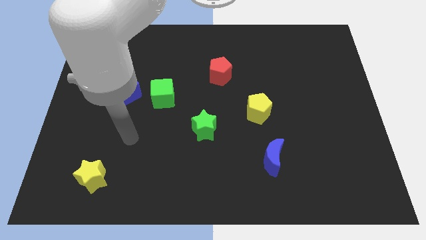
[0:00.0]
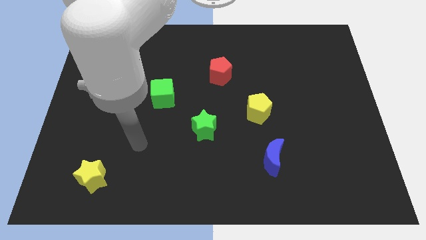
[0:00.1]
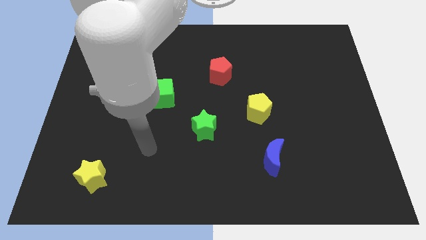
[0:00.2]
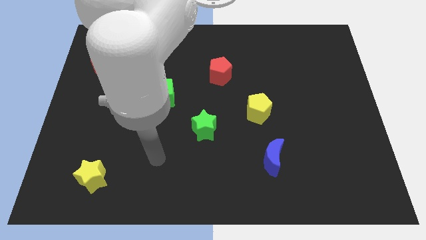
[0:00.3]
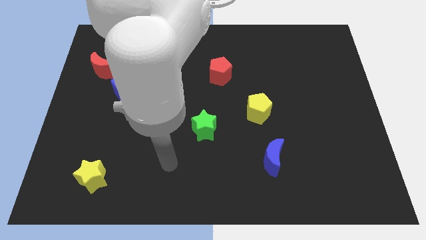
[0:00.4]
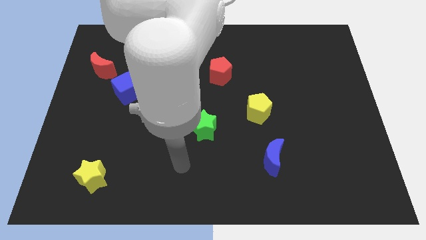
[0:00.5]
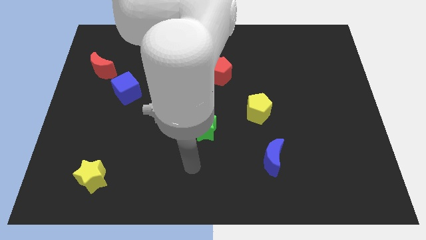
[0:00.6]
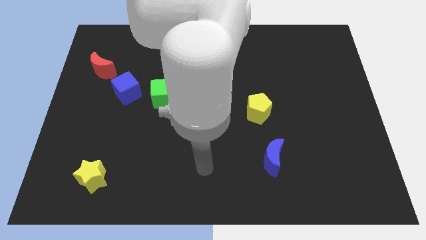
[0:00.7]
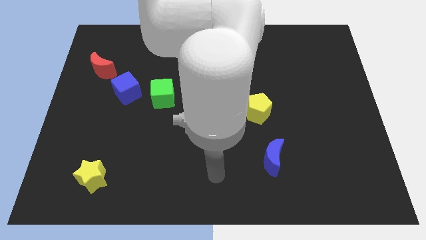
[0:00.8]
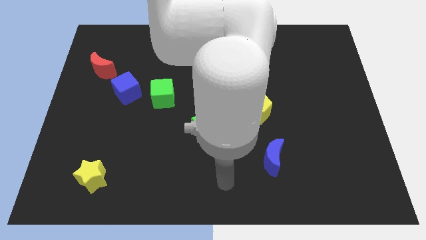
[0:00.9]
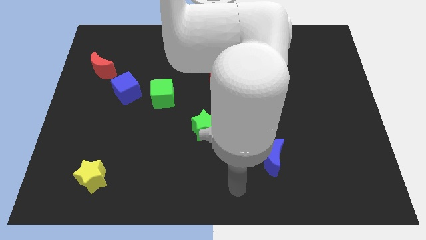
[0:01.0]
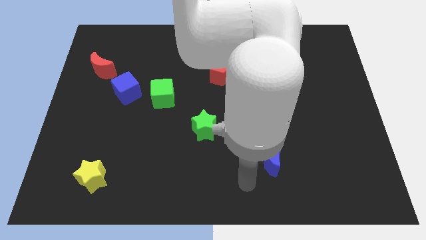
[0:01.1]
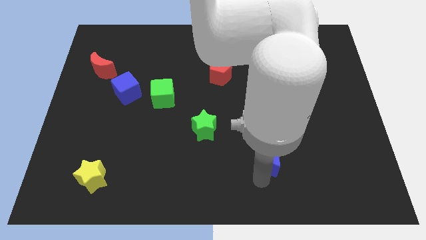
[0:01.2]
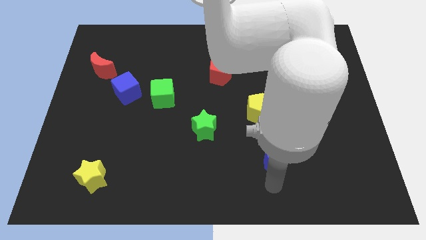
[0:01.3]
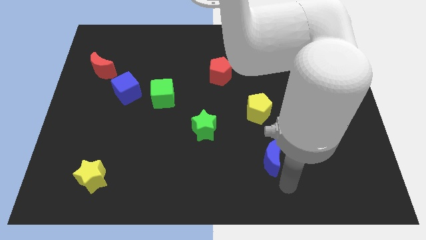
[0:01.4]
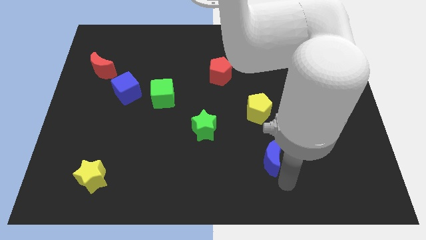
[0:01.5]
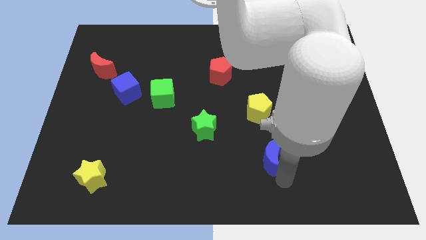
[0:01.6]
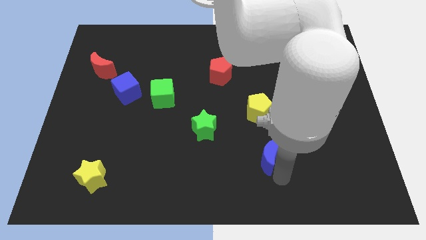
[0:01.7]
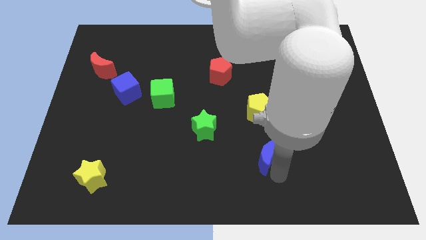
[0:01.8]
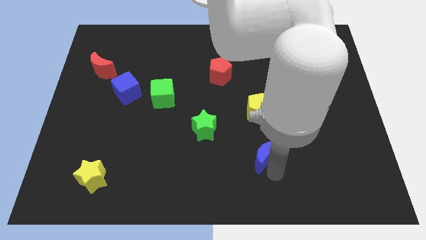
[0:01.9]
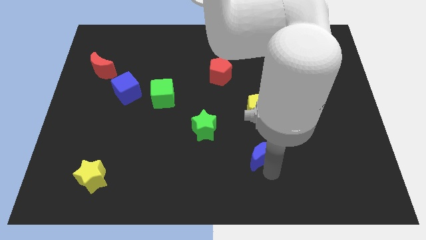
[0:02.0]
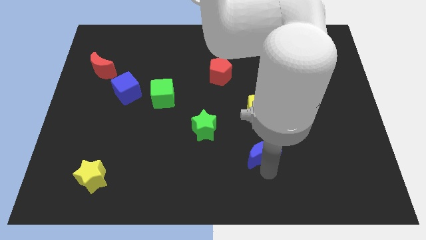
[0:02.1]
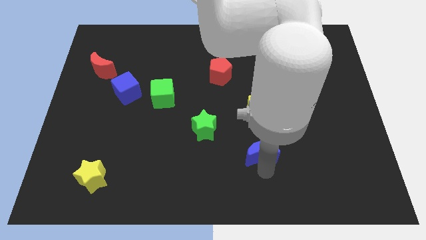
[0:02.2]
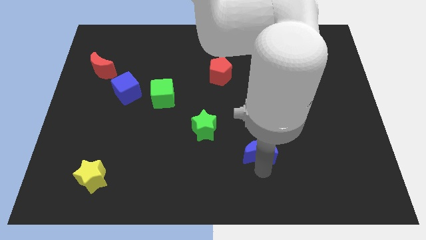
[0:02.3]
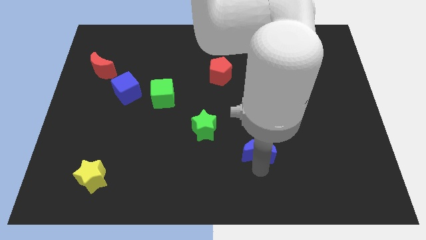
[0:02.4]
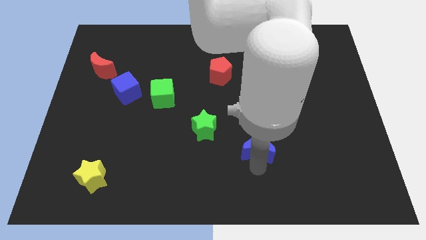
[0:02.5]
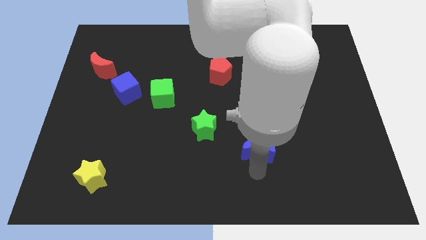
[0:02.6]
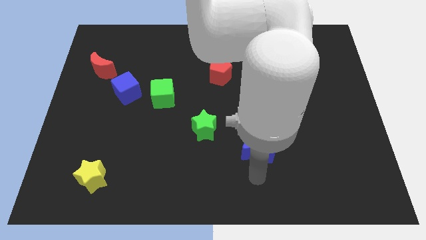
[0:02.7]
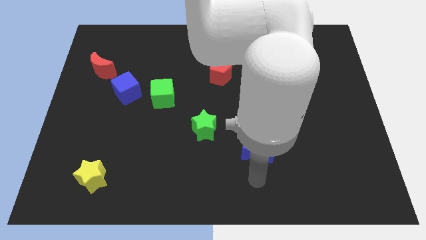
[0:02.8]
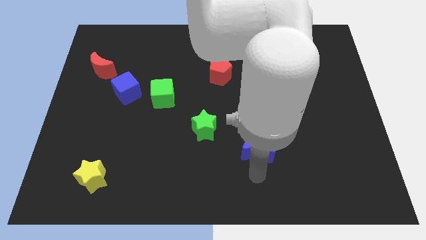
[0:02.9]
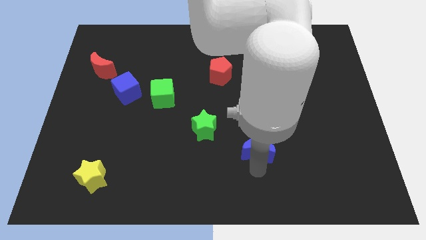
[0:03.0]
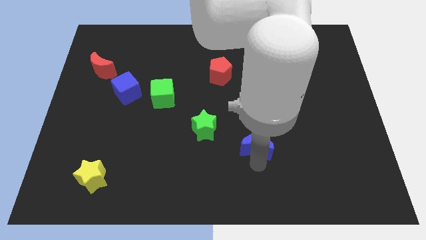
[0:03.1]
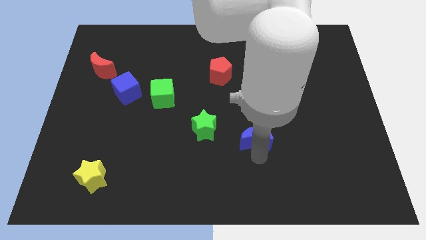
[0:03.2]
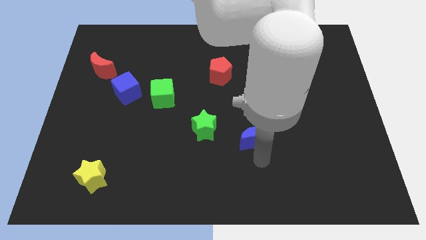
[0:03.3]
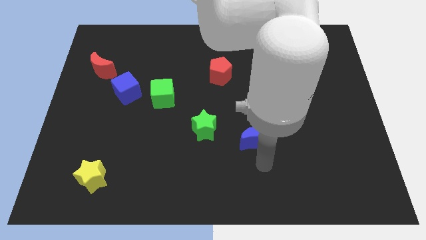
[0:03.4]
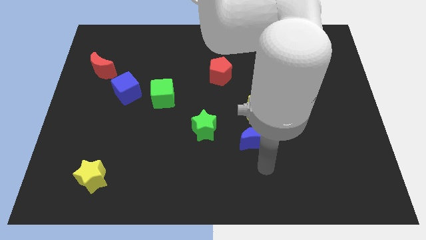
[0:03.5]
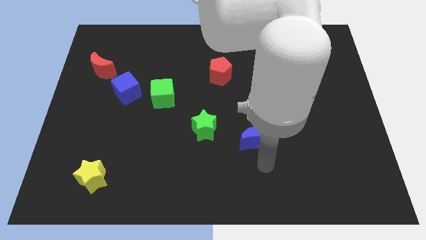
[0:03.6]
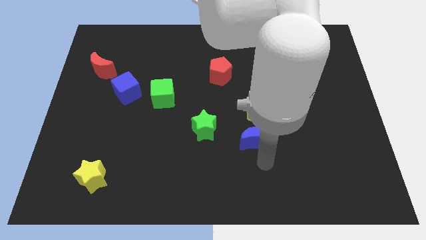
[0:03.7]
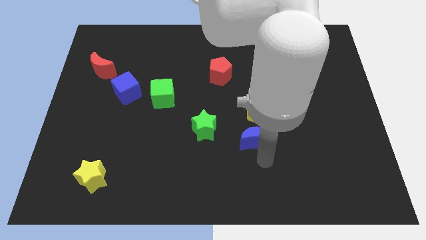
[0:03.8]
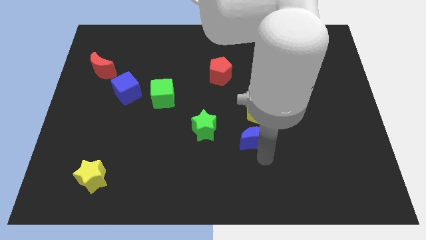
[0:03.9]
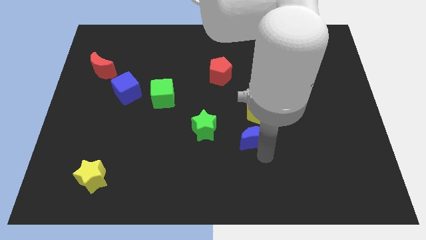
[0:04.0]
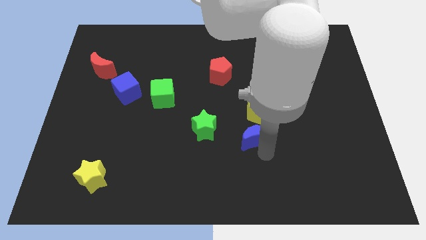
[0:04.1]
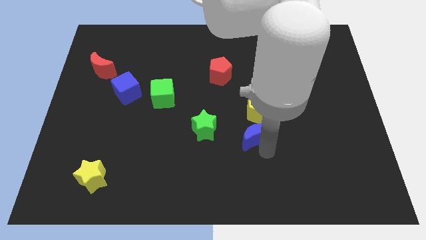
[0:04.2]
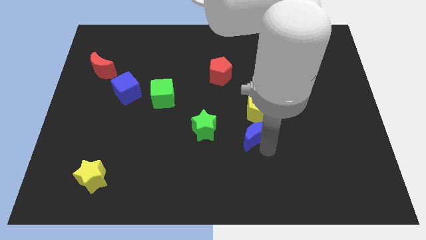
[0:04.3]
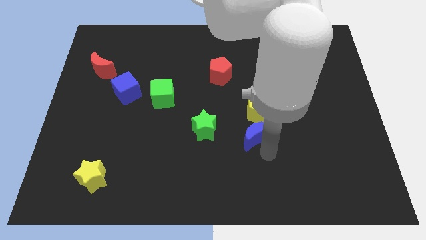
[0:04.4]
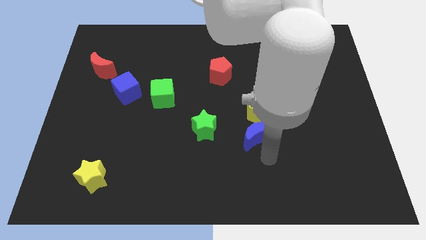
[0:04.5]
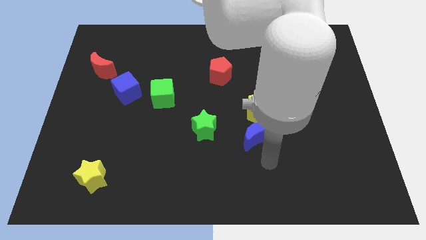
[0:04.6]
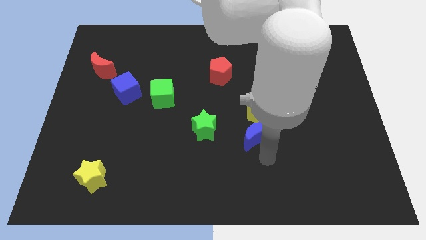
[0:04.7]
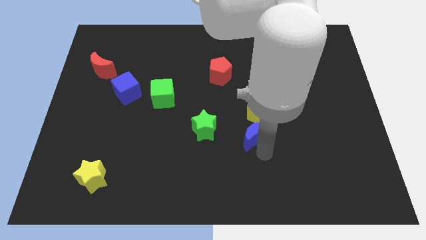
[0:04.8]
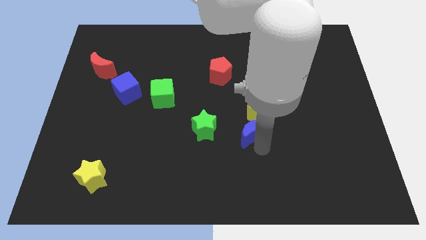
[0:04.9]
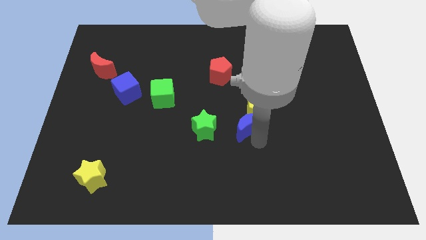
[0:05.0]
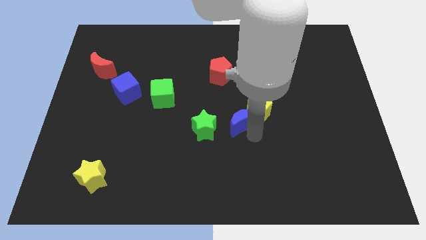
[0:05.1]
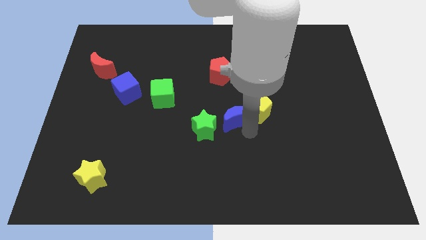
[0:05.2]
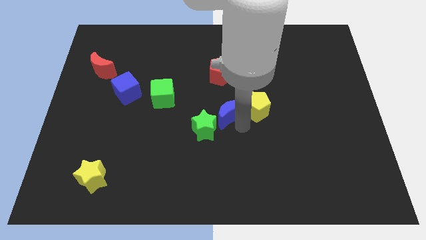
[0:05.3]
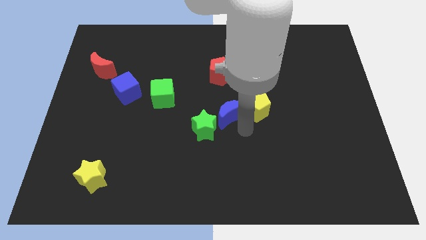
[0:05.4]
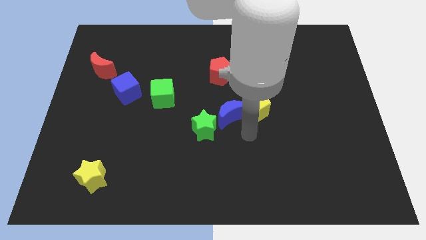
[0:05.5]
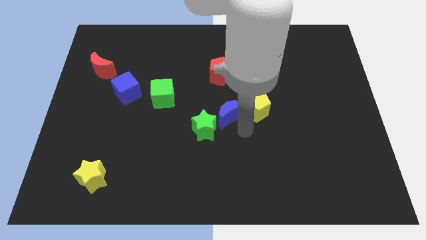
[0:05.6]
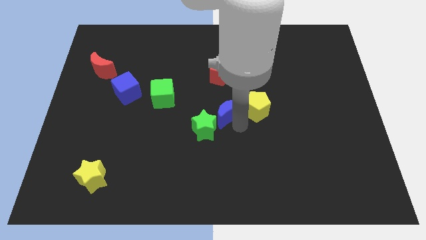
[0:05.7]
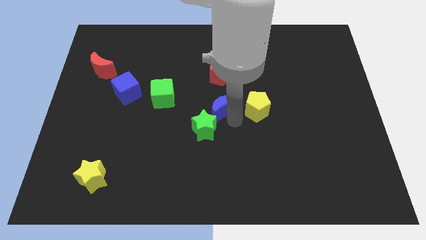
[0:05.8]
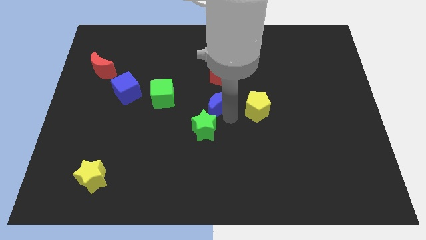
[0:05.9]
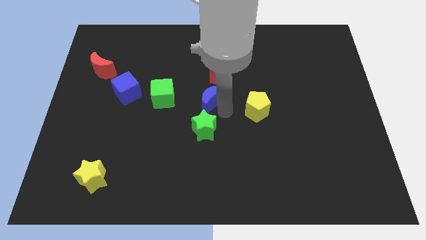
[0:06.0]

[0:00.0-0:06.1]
slide the blue moon upwards and then left

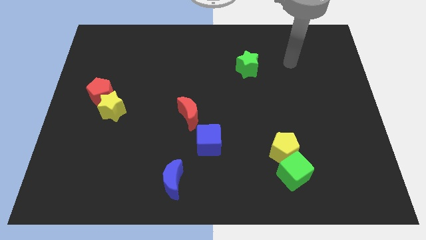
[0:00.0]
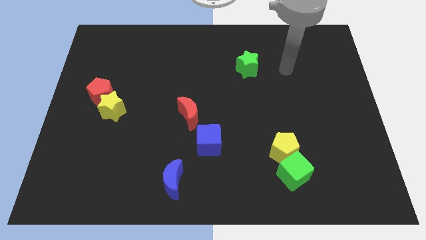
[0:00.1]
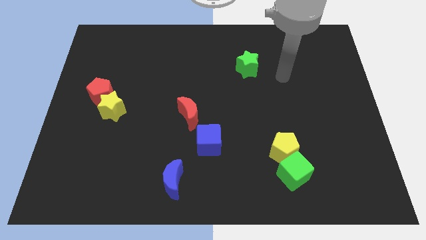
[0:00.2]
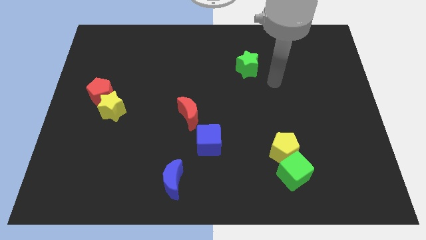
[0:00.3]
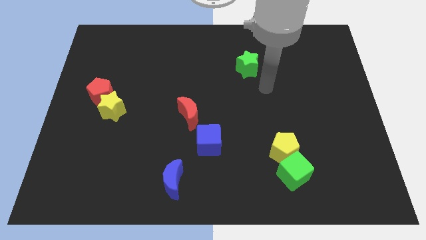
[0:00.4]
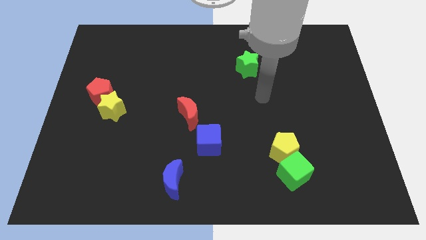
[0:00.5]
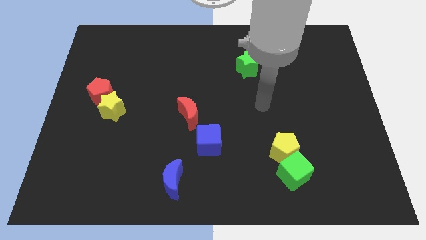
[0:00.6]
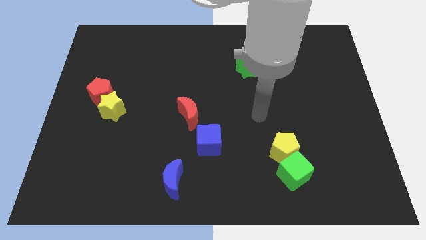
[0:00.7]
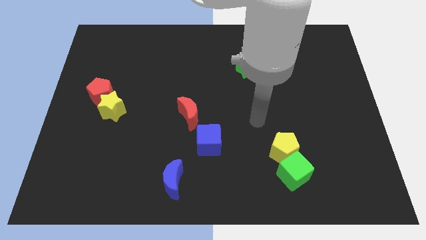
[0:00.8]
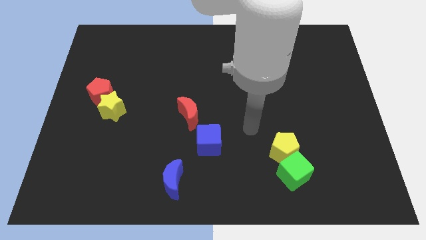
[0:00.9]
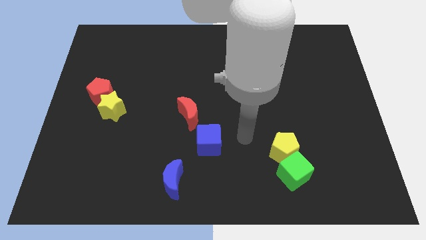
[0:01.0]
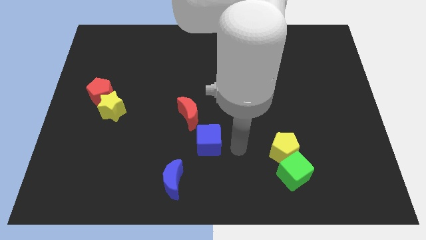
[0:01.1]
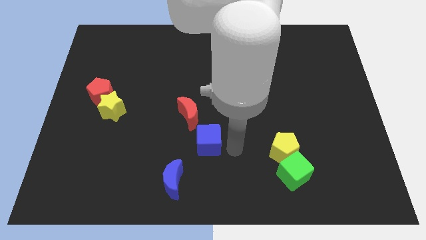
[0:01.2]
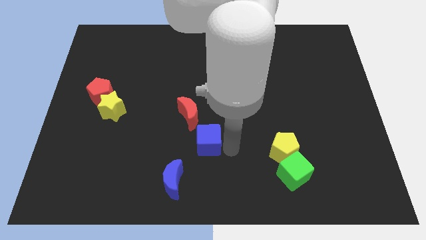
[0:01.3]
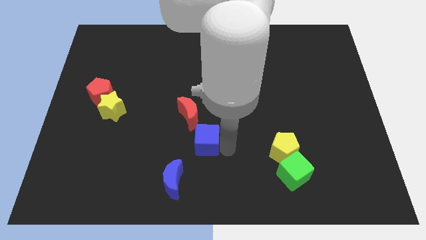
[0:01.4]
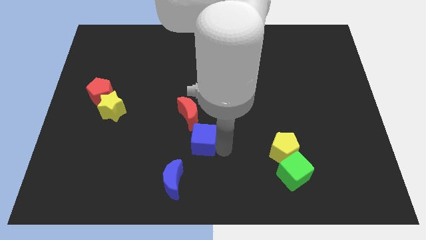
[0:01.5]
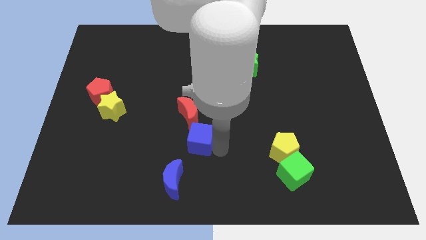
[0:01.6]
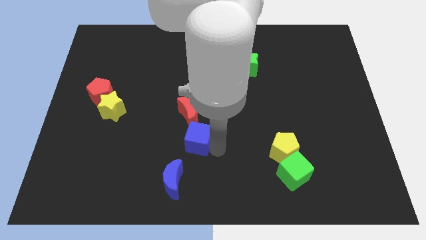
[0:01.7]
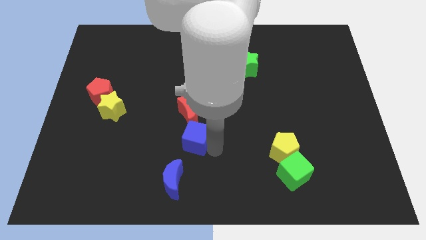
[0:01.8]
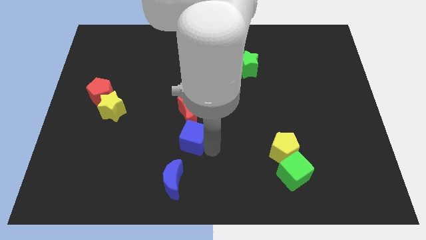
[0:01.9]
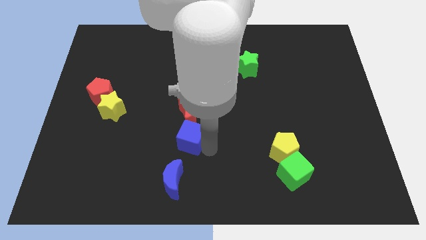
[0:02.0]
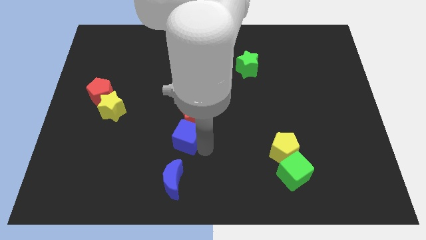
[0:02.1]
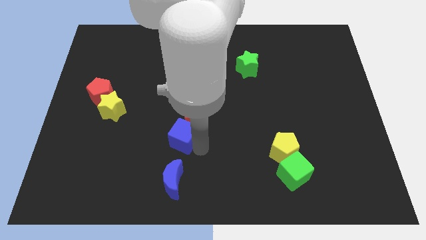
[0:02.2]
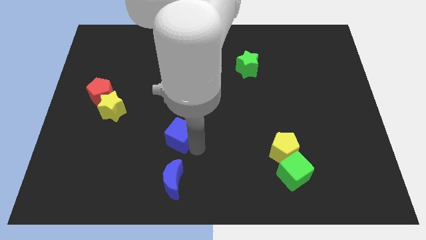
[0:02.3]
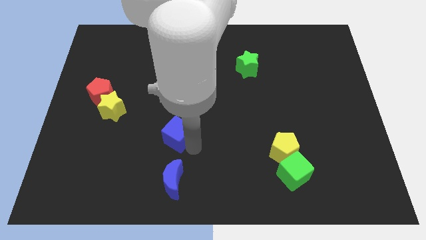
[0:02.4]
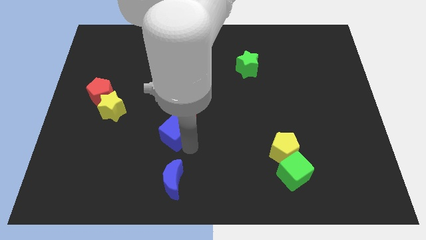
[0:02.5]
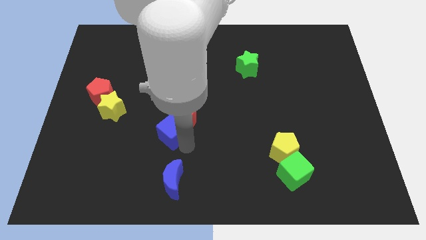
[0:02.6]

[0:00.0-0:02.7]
move the blue cube upwards and to the left diagonally a little bit
